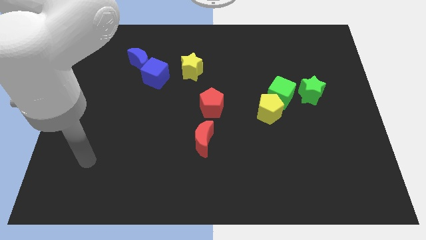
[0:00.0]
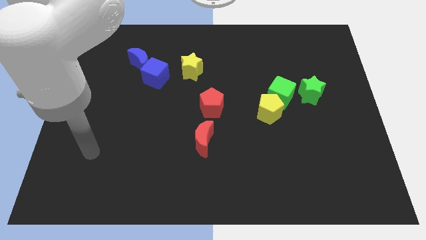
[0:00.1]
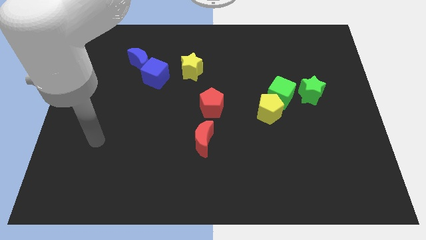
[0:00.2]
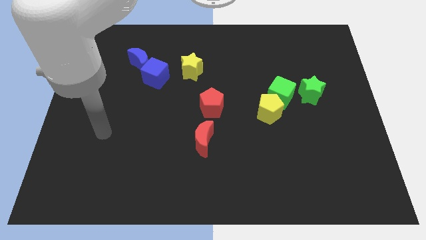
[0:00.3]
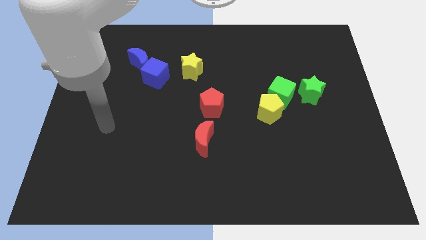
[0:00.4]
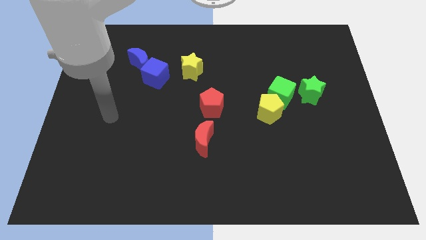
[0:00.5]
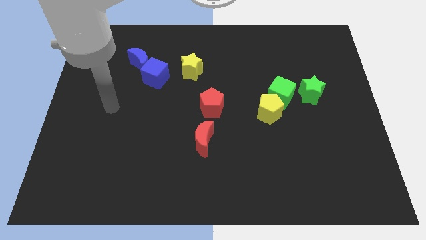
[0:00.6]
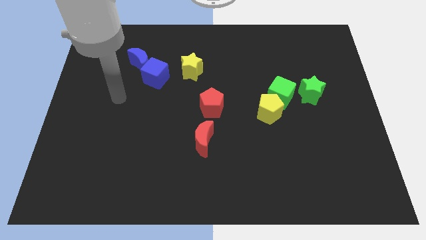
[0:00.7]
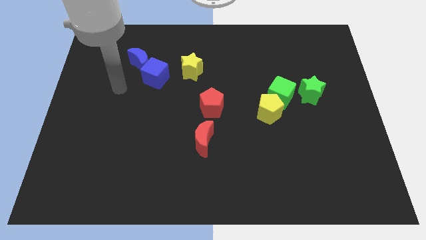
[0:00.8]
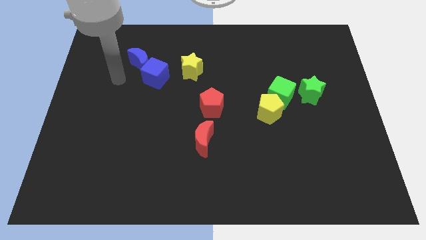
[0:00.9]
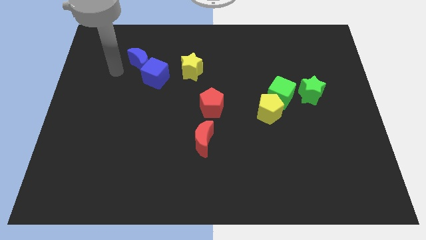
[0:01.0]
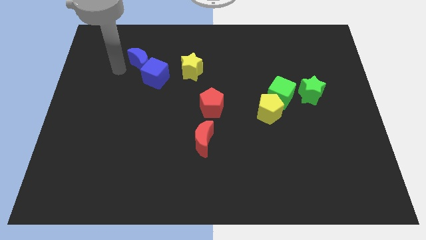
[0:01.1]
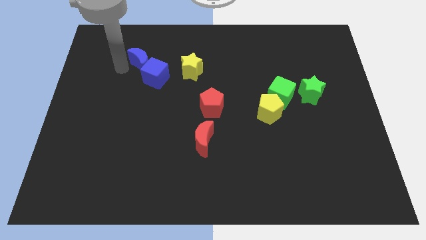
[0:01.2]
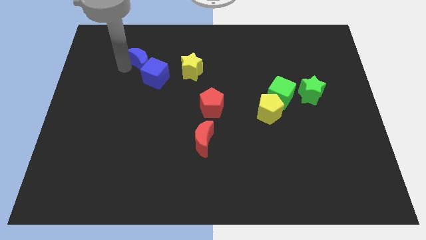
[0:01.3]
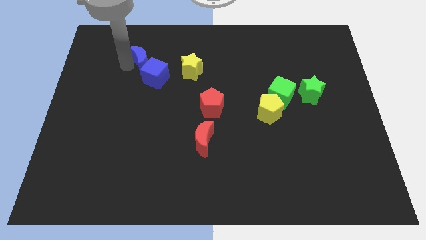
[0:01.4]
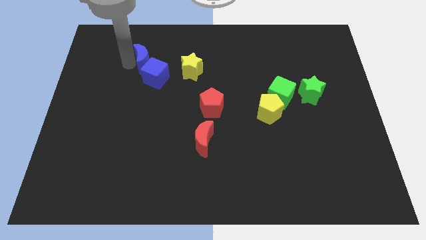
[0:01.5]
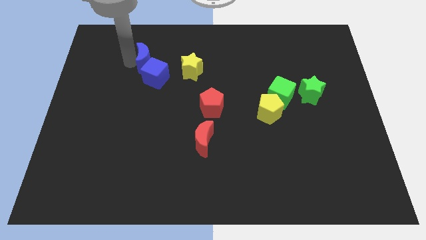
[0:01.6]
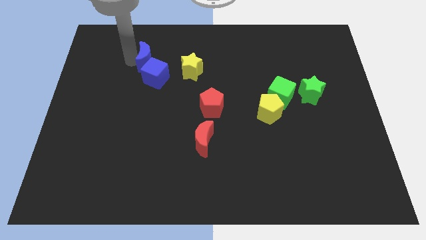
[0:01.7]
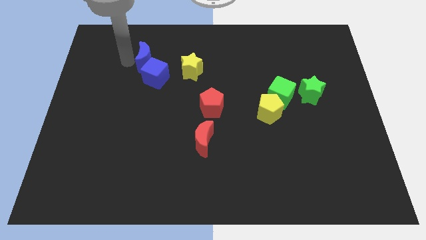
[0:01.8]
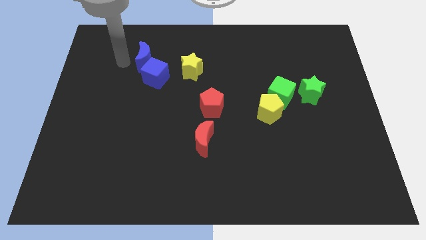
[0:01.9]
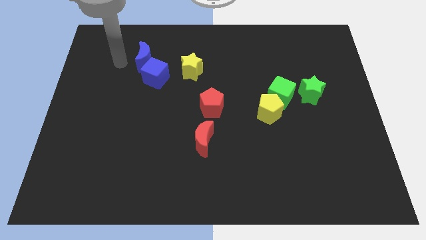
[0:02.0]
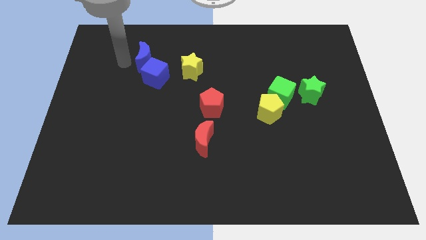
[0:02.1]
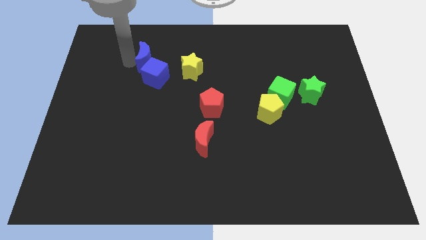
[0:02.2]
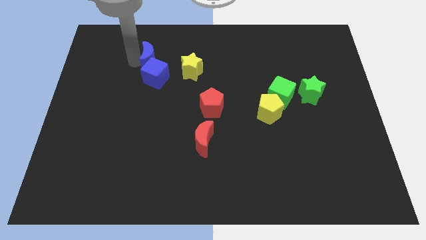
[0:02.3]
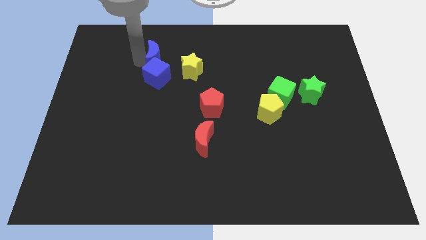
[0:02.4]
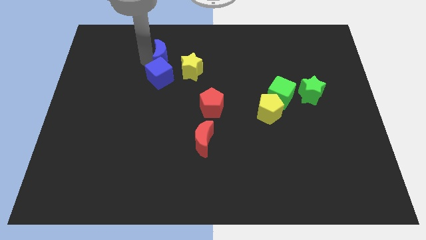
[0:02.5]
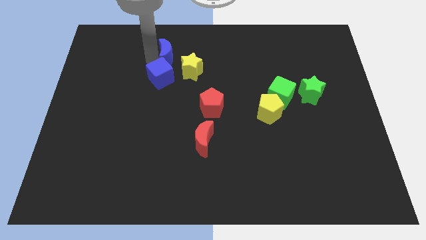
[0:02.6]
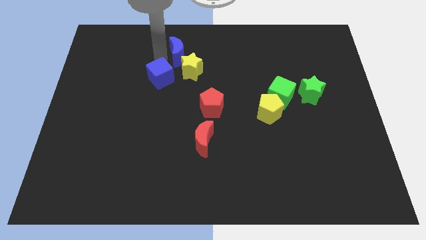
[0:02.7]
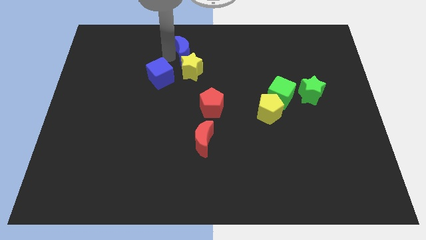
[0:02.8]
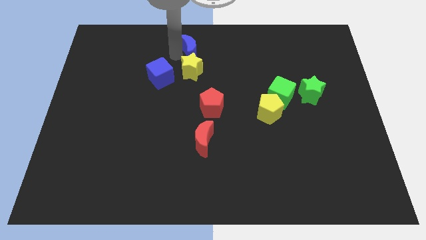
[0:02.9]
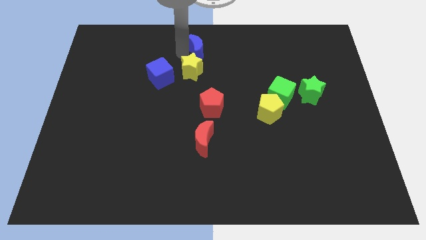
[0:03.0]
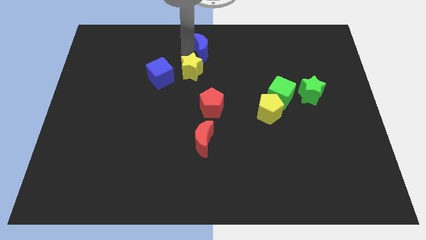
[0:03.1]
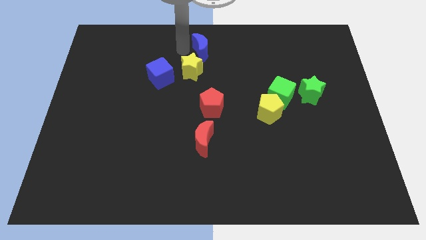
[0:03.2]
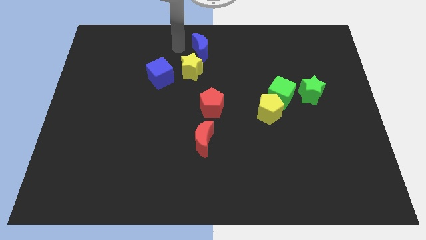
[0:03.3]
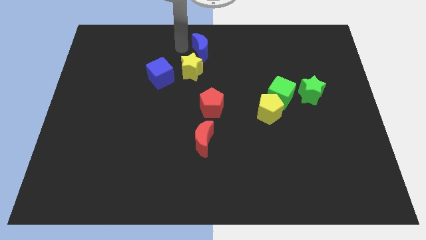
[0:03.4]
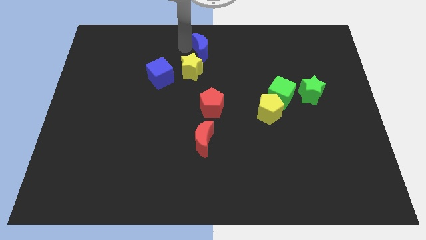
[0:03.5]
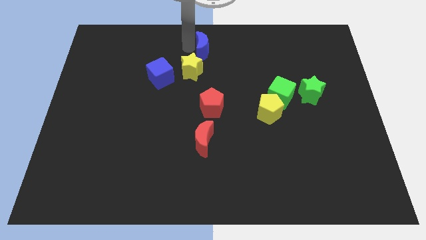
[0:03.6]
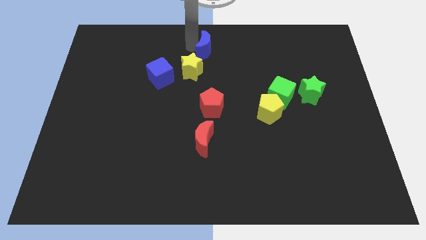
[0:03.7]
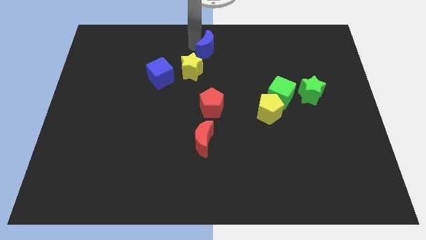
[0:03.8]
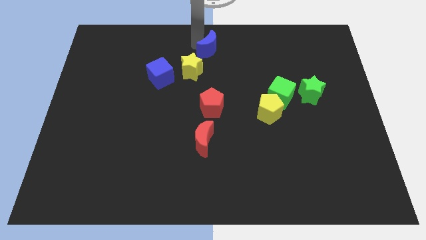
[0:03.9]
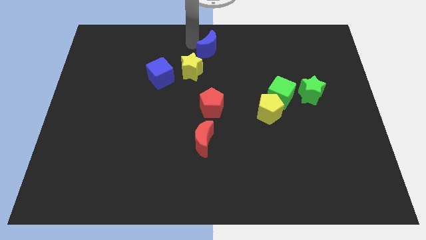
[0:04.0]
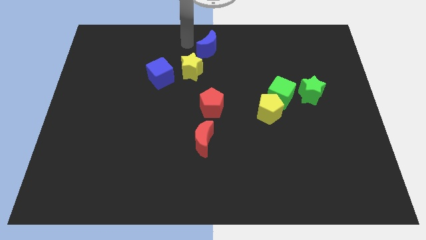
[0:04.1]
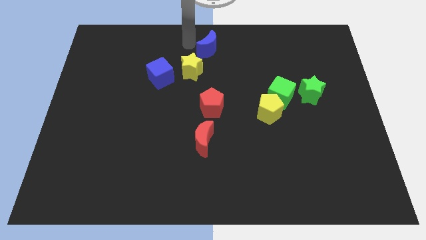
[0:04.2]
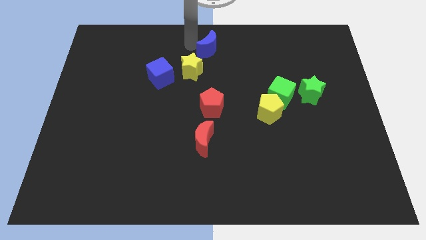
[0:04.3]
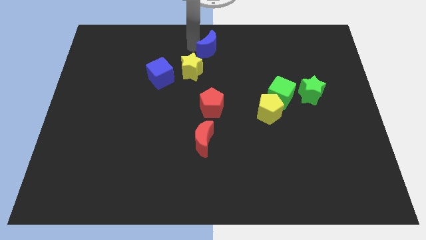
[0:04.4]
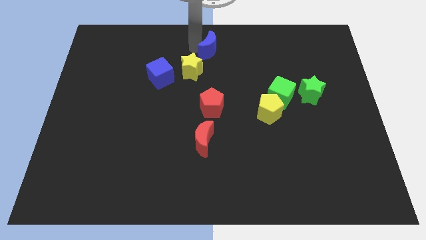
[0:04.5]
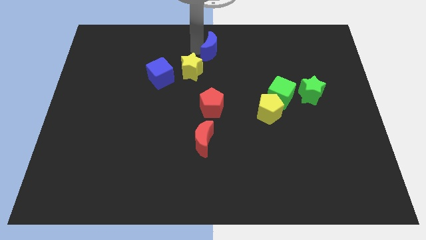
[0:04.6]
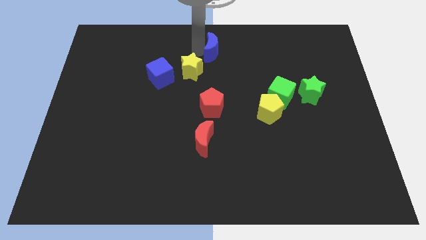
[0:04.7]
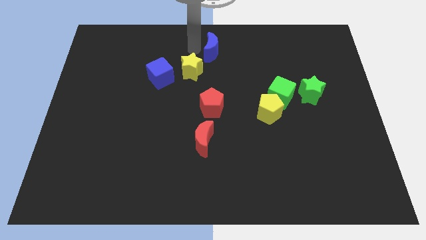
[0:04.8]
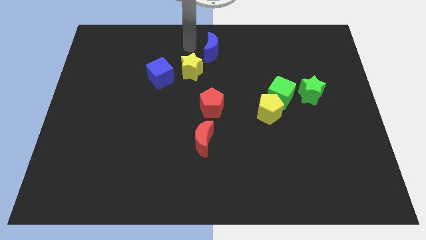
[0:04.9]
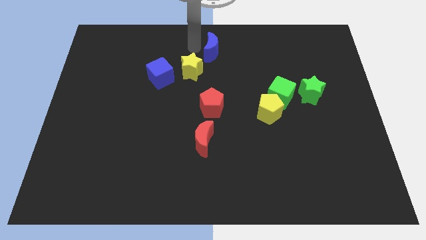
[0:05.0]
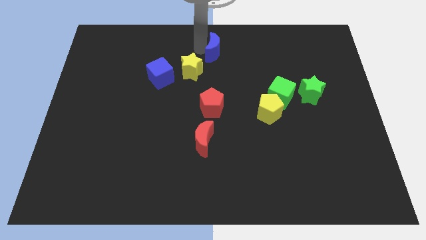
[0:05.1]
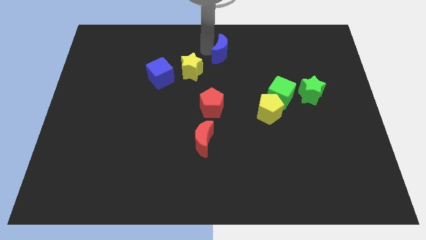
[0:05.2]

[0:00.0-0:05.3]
slide the blue moon right

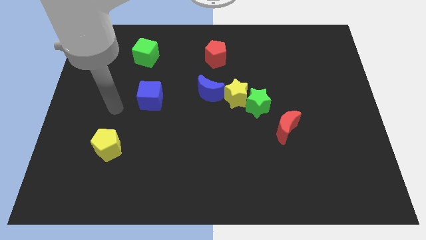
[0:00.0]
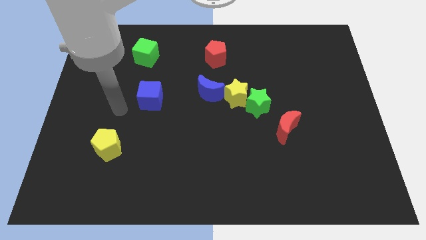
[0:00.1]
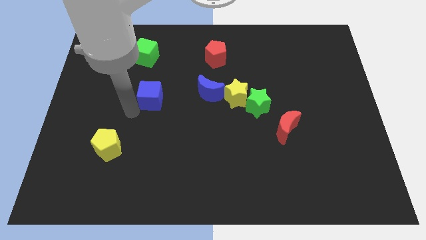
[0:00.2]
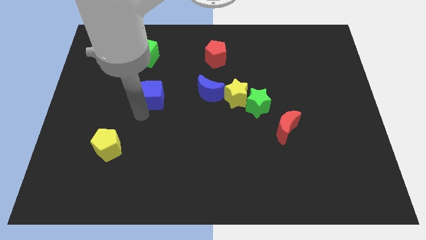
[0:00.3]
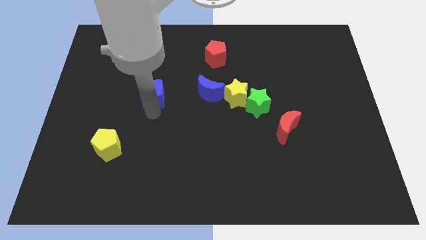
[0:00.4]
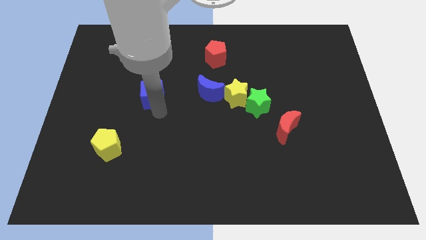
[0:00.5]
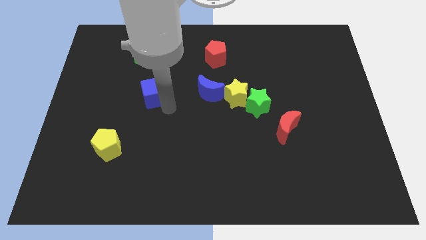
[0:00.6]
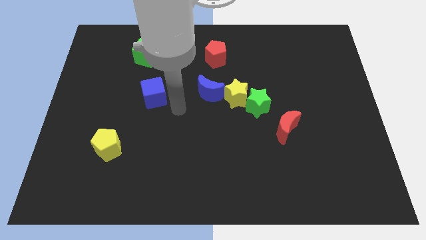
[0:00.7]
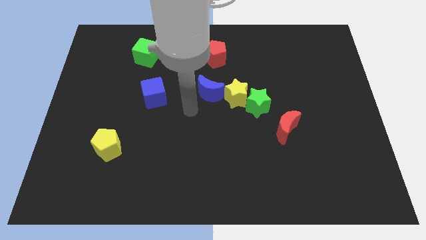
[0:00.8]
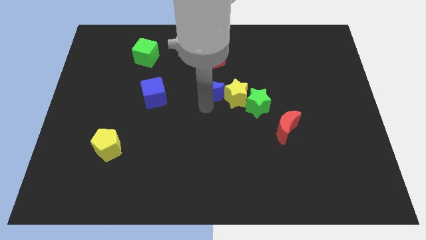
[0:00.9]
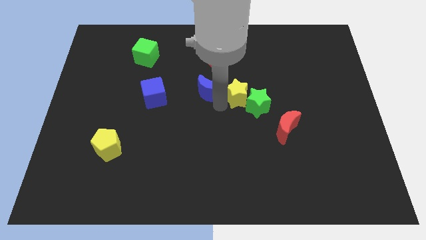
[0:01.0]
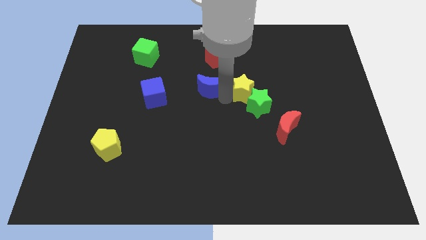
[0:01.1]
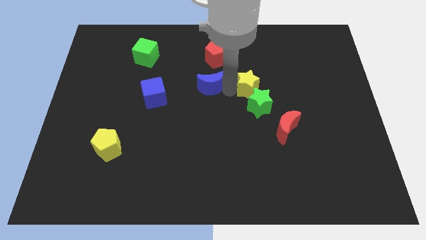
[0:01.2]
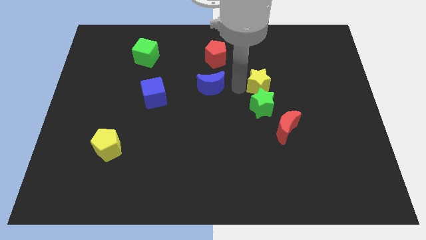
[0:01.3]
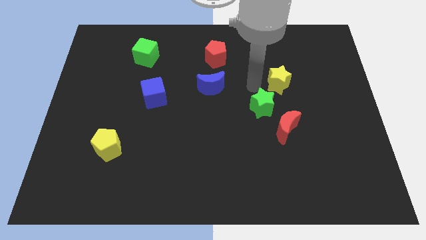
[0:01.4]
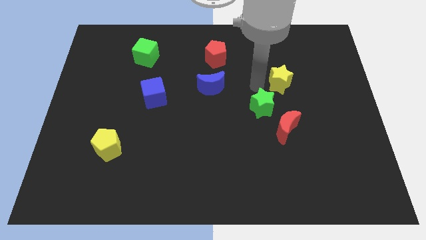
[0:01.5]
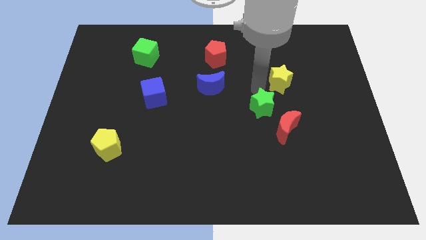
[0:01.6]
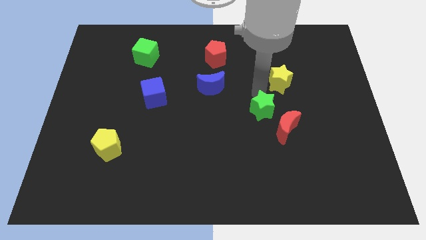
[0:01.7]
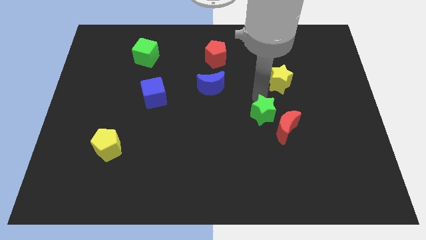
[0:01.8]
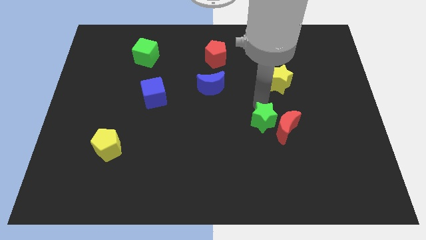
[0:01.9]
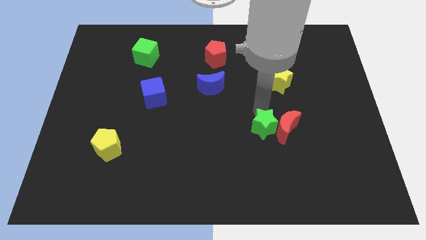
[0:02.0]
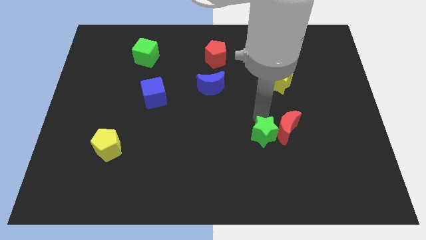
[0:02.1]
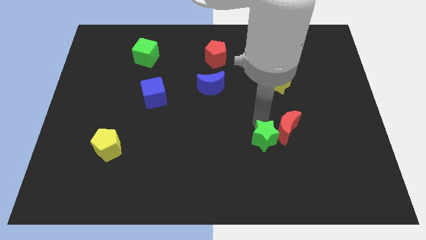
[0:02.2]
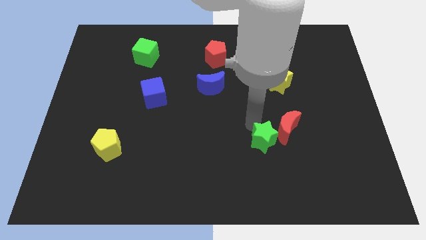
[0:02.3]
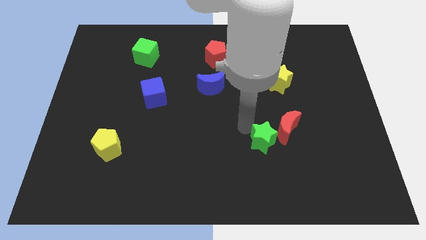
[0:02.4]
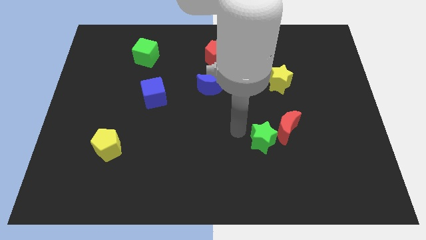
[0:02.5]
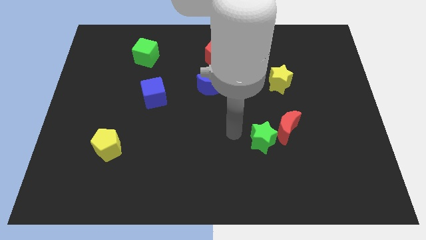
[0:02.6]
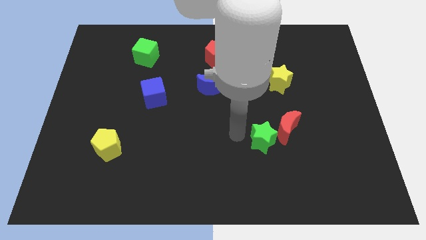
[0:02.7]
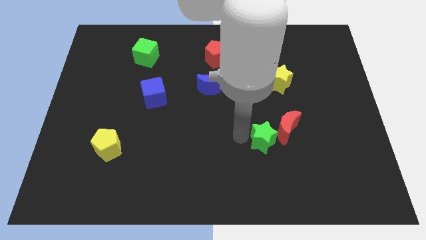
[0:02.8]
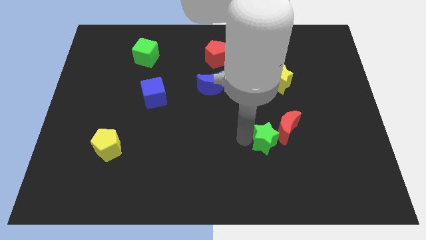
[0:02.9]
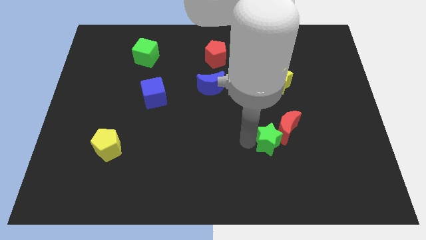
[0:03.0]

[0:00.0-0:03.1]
push the green star down and to the right slightly

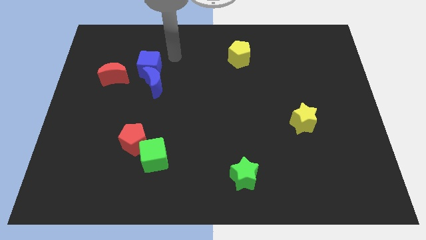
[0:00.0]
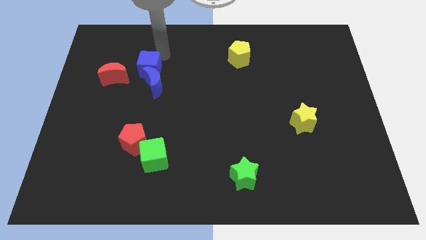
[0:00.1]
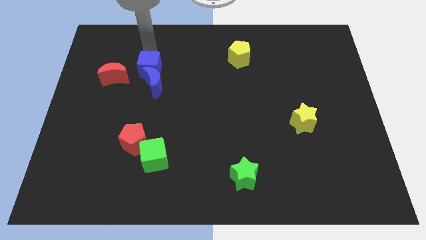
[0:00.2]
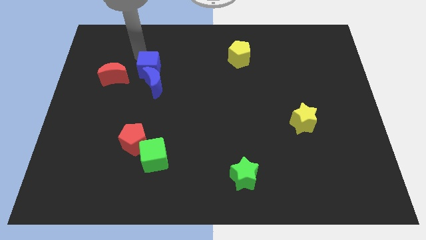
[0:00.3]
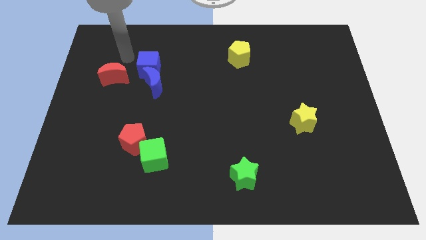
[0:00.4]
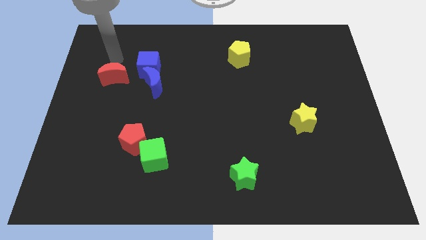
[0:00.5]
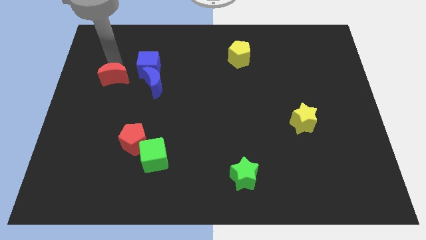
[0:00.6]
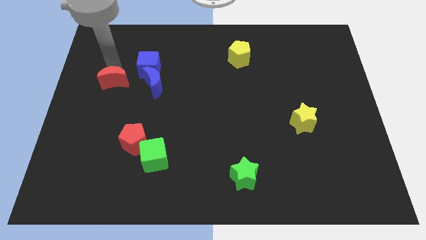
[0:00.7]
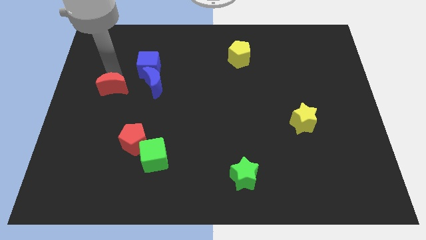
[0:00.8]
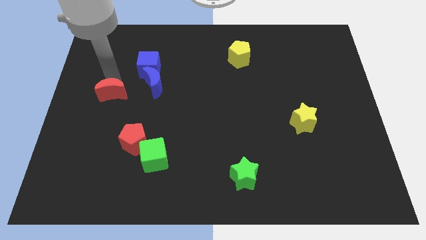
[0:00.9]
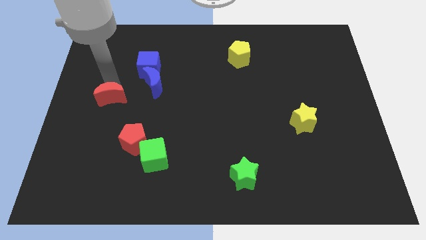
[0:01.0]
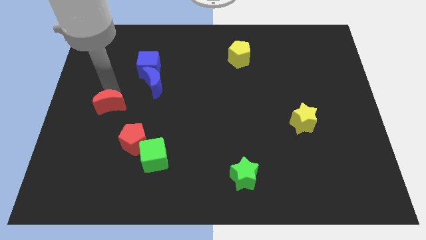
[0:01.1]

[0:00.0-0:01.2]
slide the red moon a bit downwards
